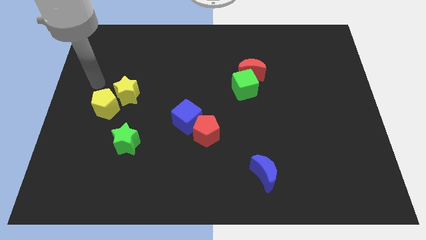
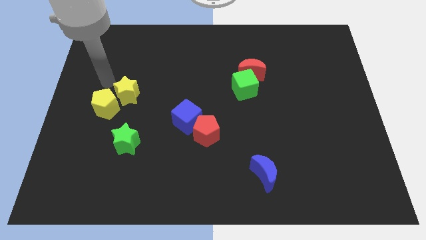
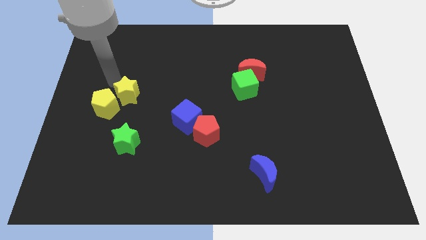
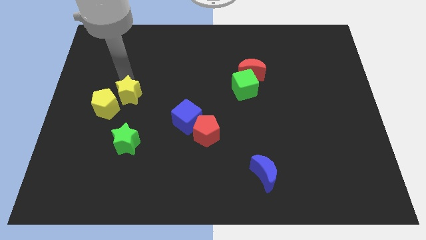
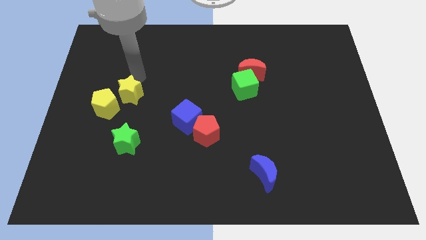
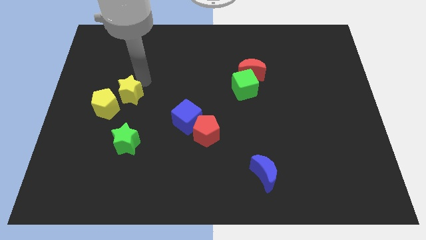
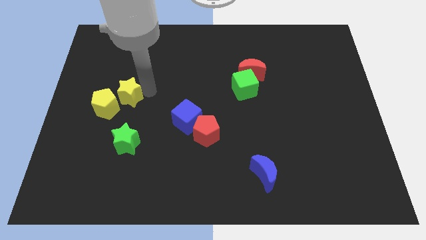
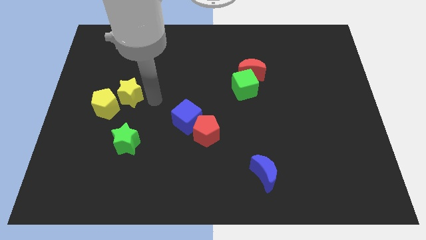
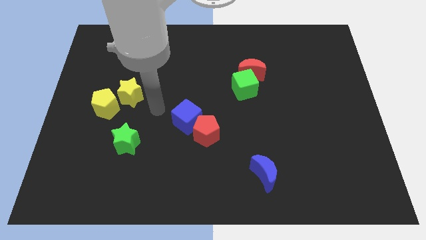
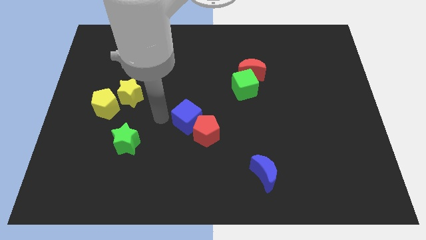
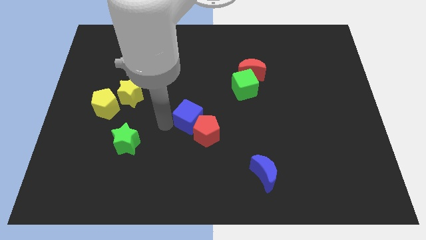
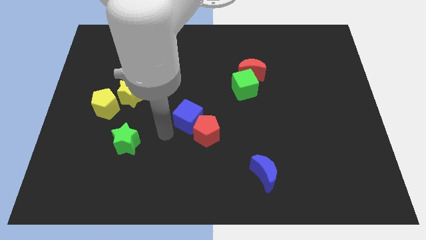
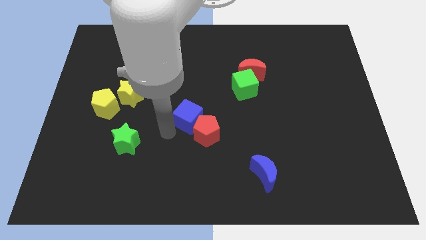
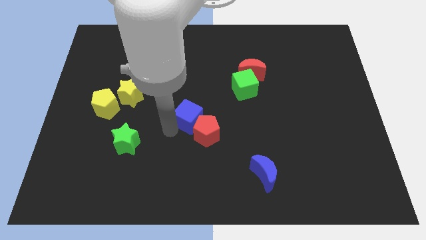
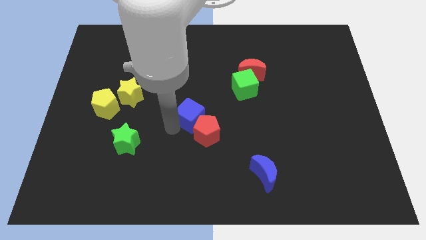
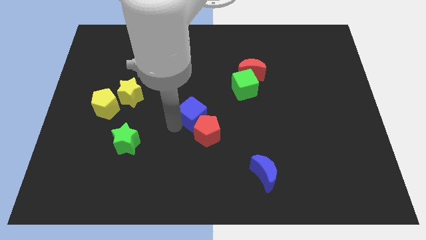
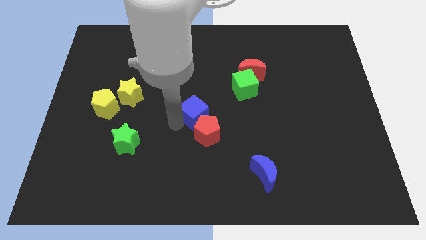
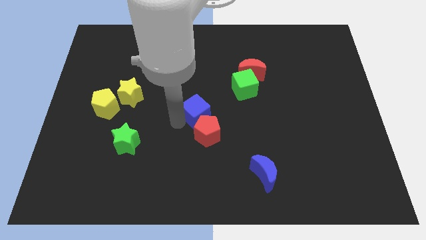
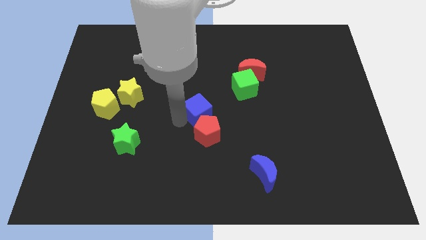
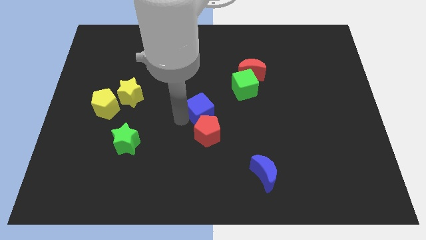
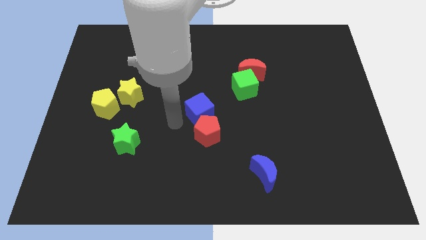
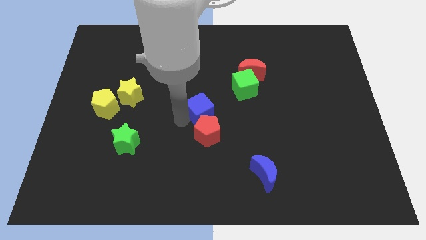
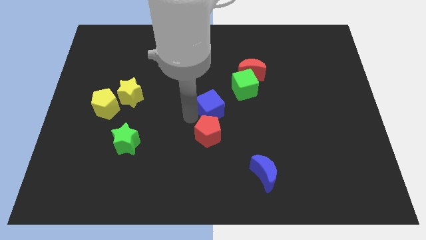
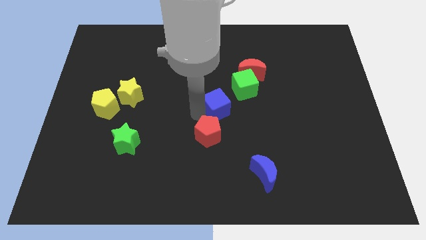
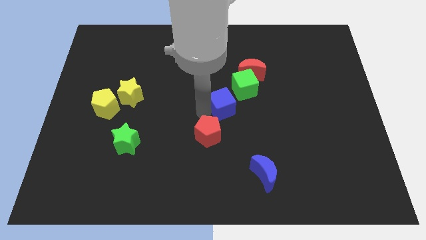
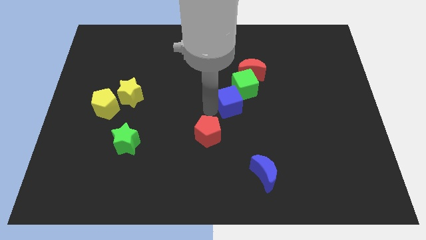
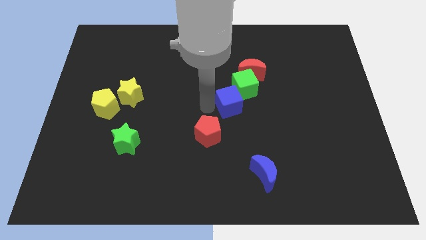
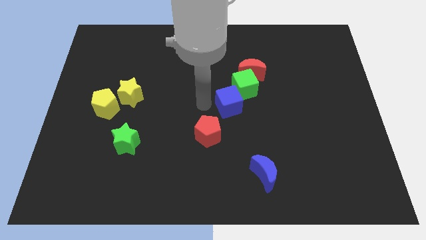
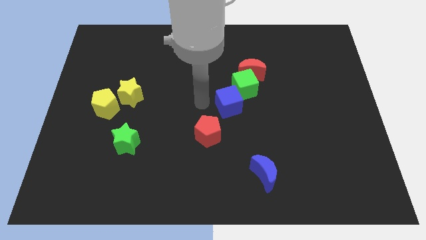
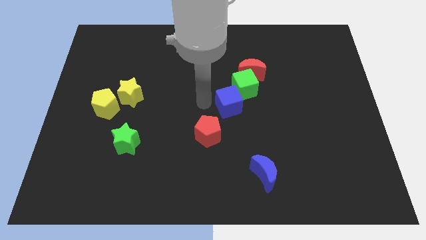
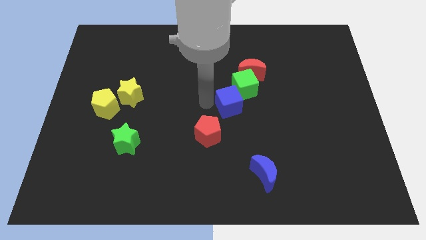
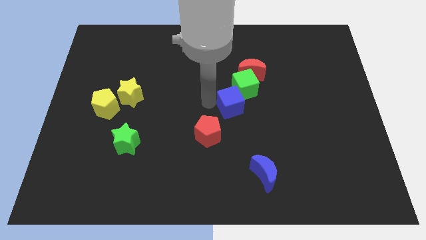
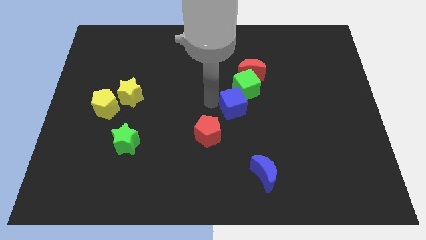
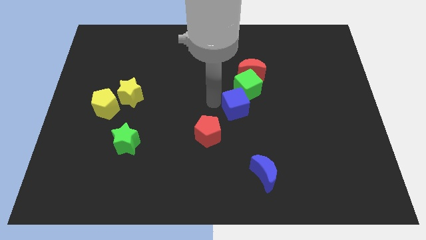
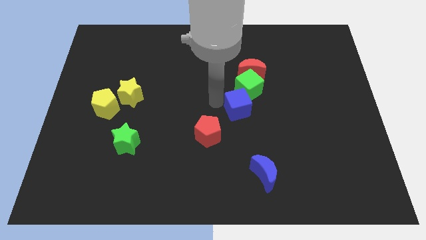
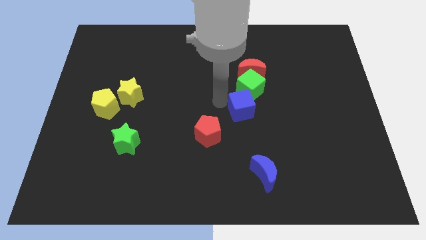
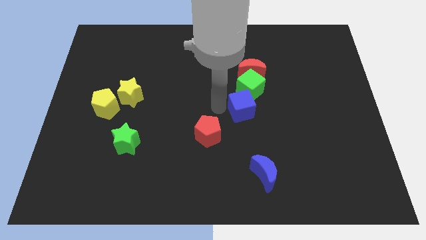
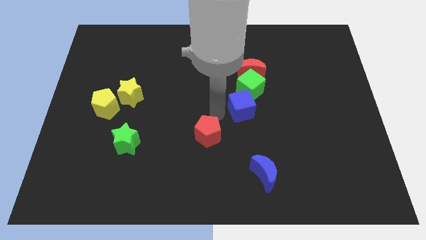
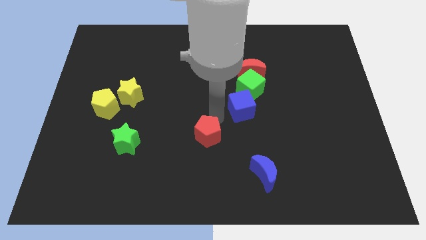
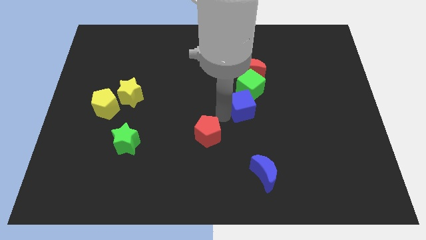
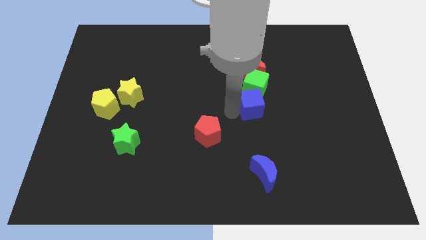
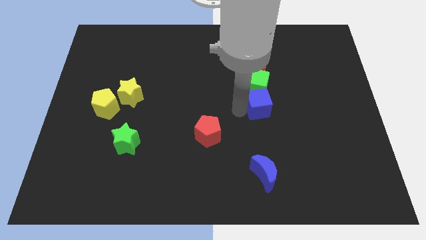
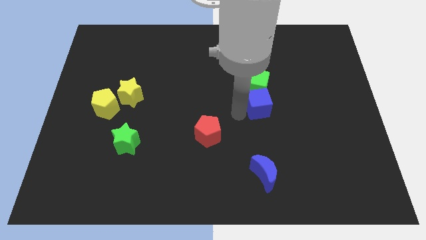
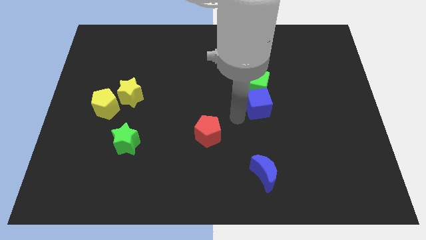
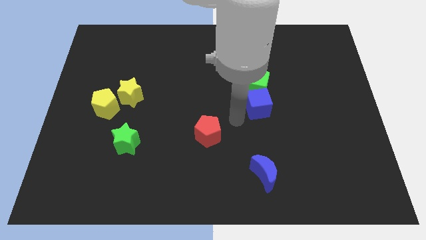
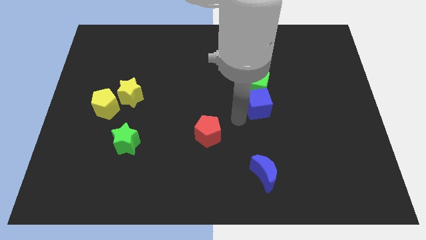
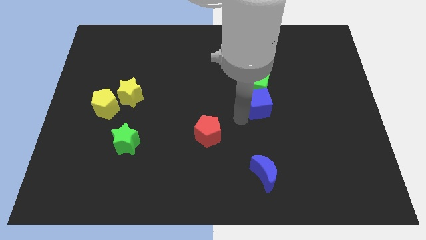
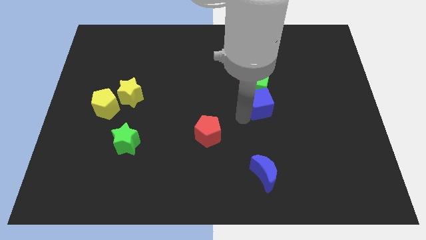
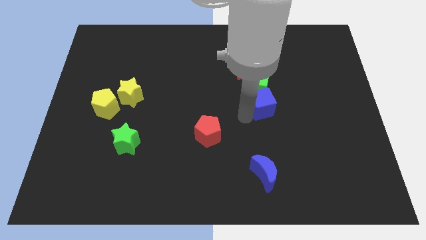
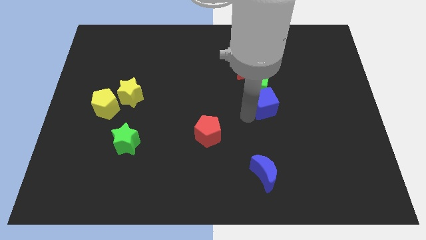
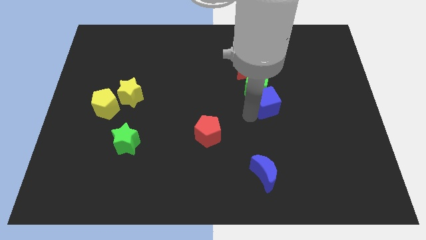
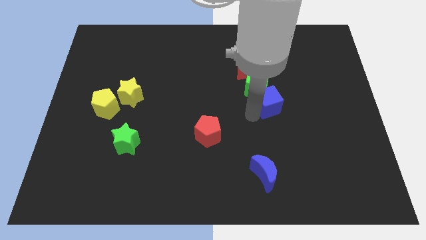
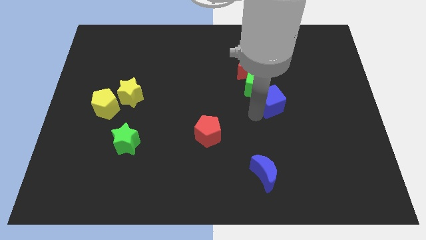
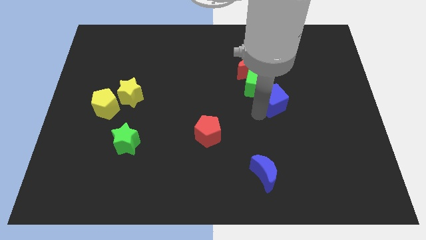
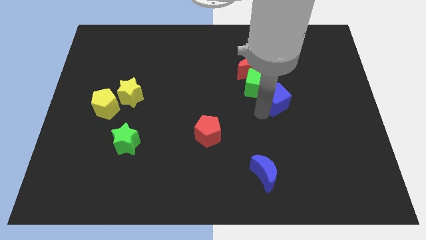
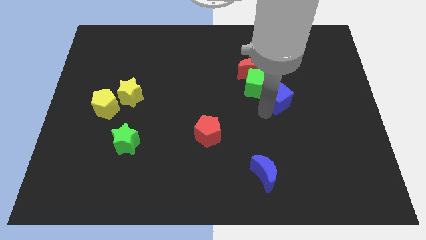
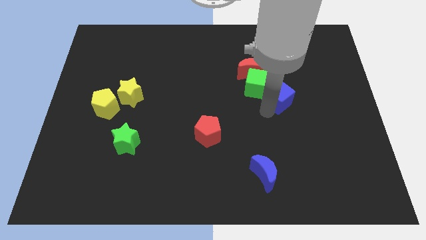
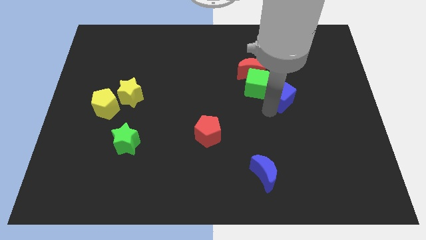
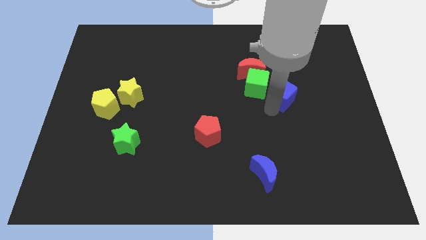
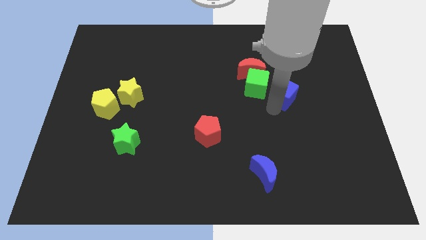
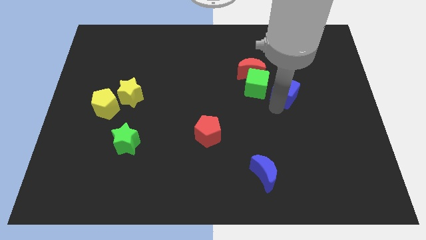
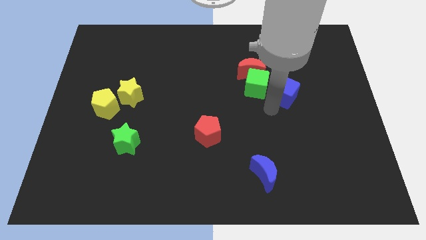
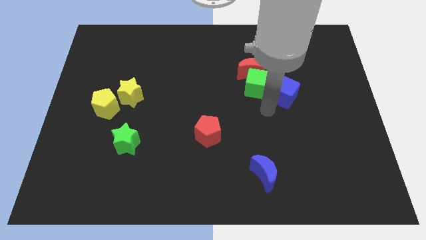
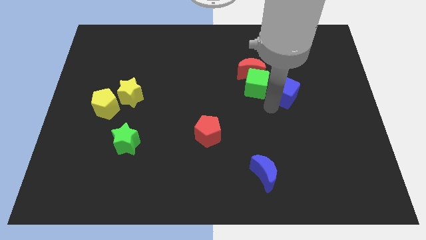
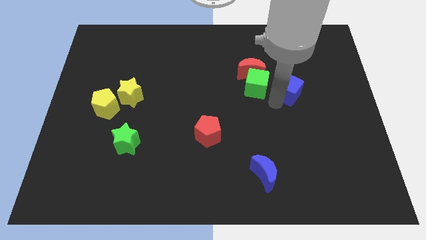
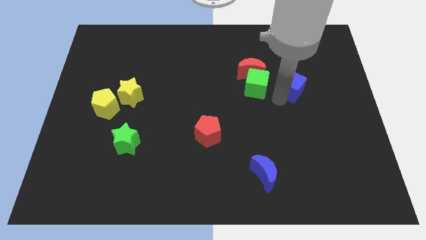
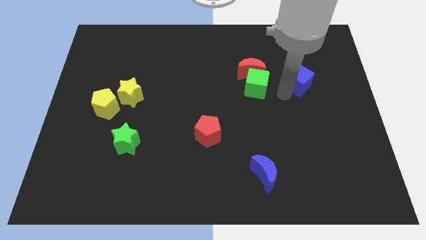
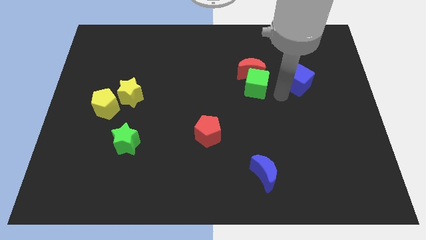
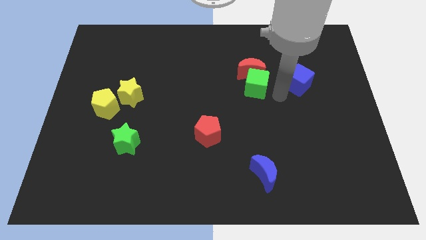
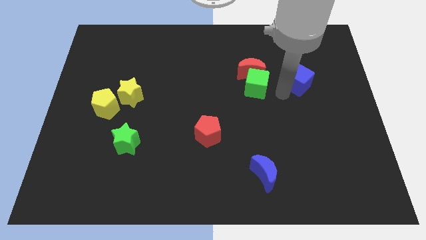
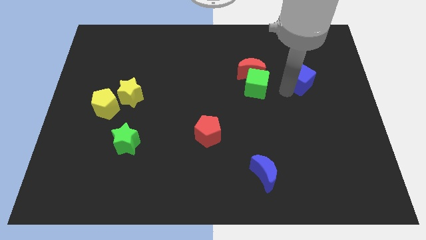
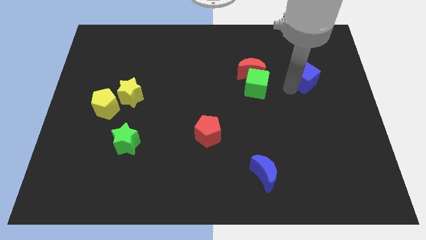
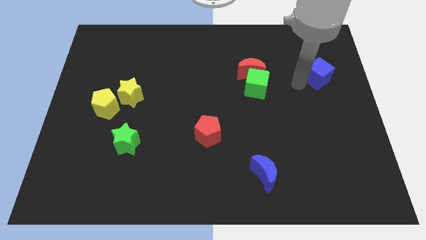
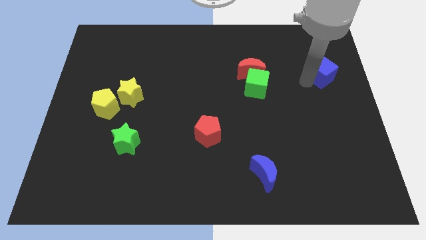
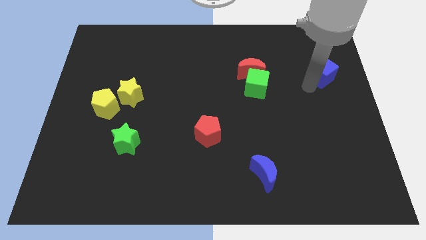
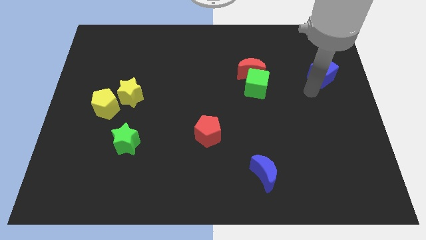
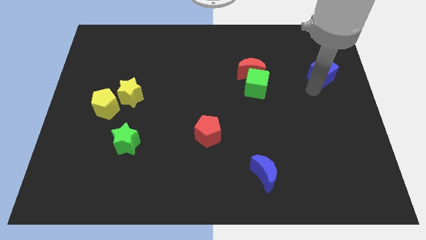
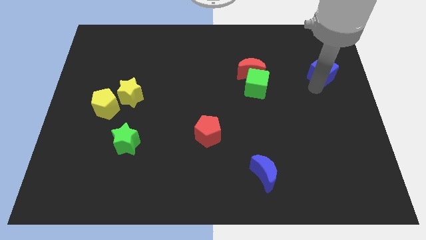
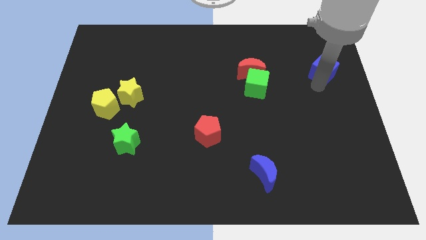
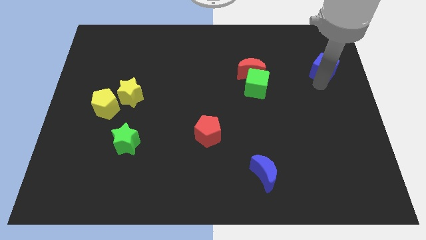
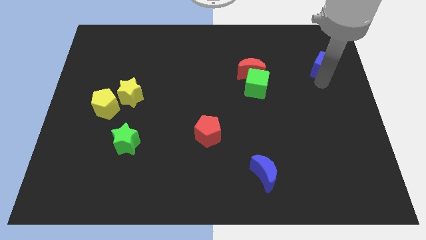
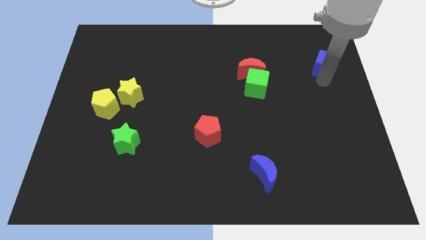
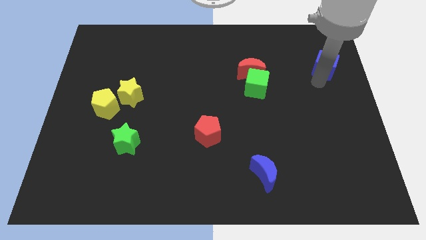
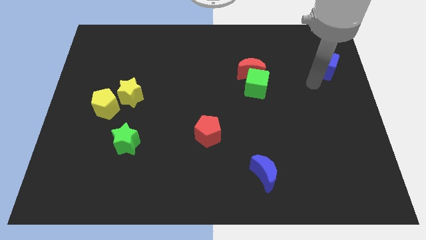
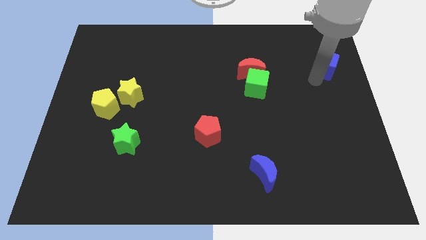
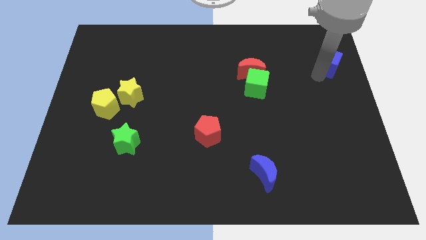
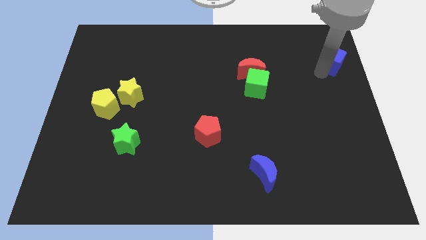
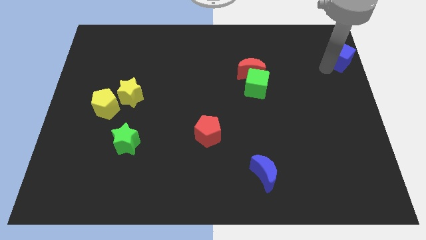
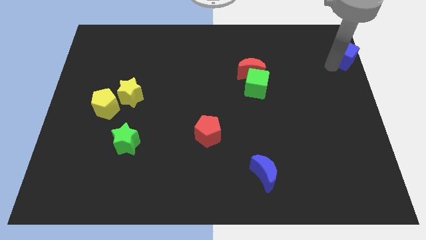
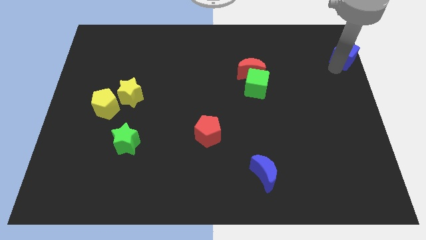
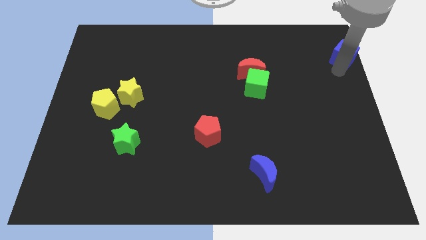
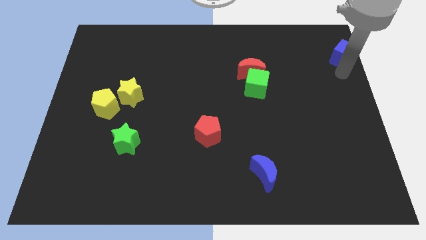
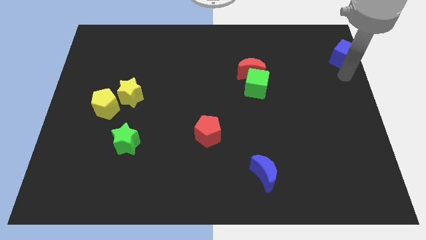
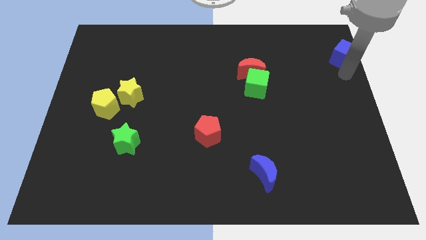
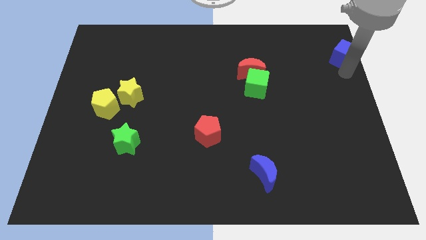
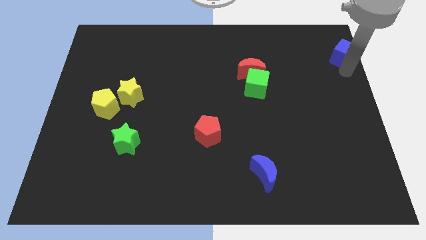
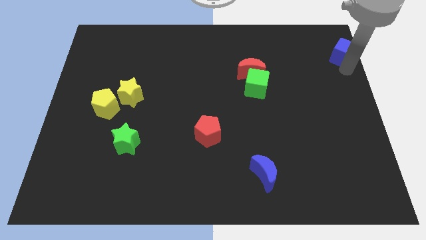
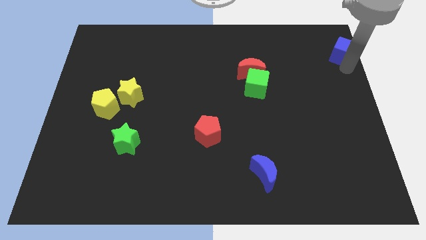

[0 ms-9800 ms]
slide the blue cube to the top right corner
